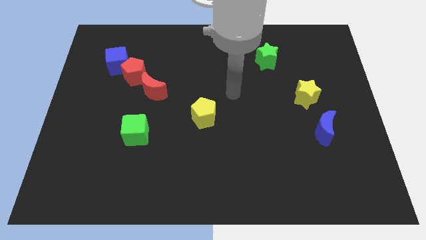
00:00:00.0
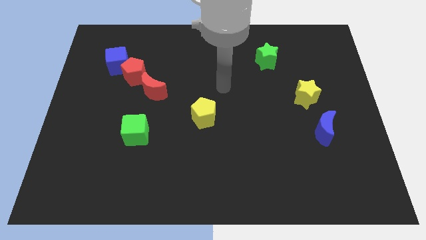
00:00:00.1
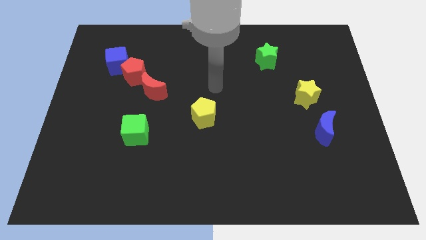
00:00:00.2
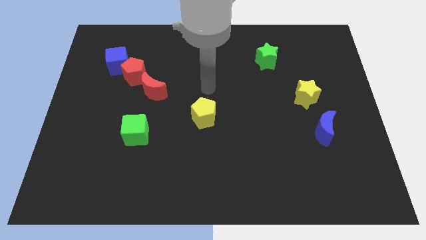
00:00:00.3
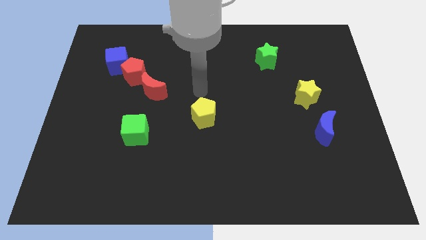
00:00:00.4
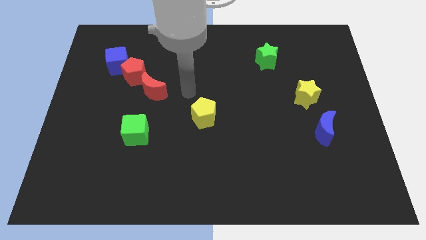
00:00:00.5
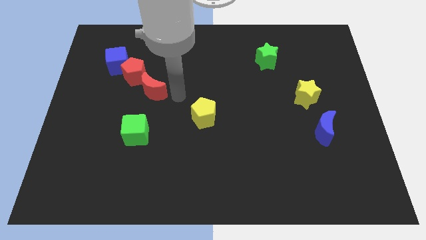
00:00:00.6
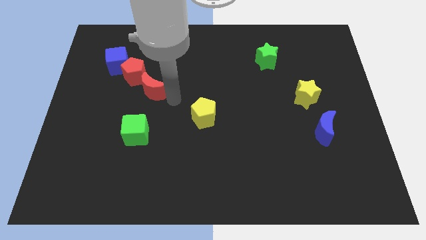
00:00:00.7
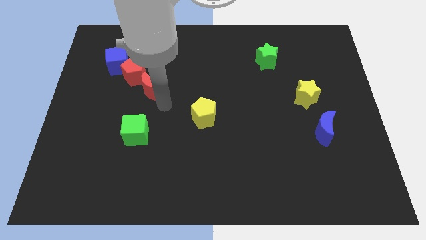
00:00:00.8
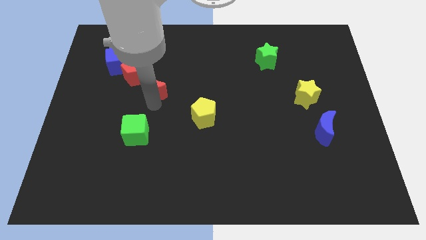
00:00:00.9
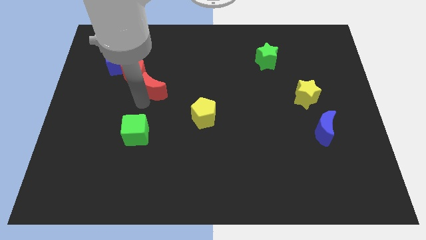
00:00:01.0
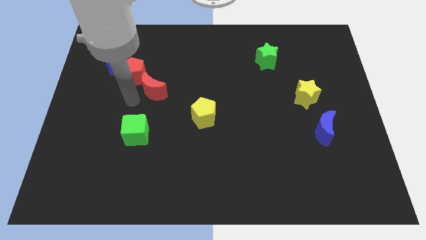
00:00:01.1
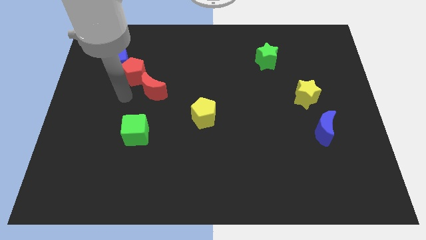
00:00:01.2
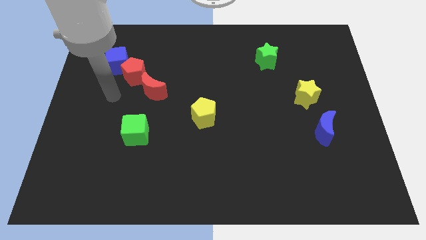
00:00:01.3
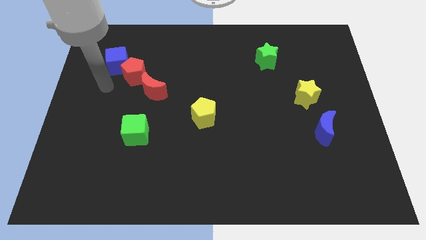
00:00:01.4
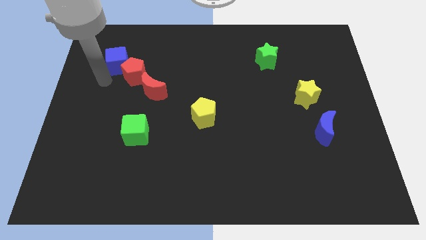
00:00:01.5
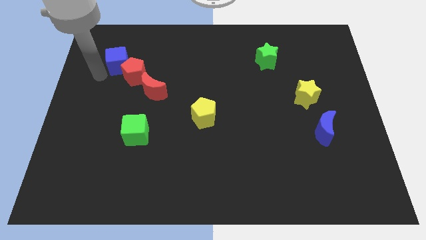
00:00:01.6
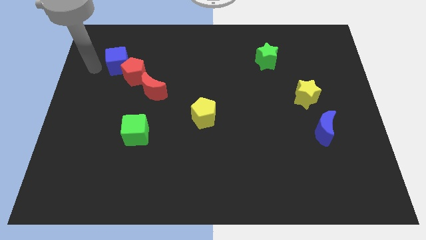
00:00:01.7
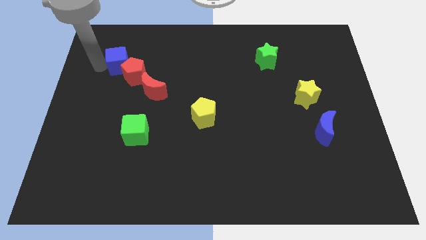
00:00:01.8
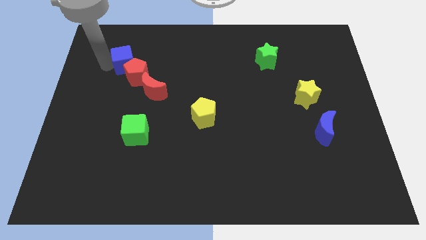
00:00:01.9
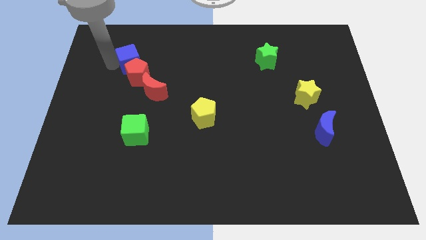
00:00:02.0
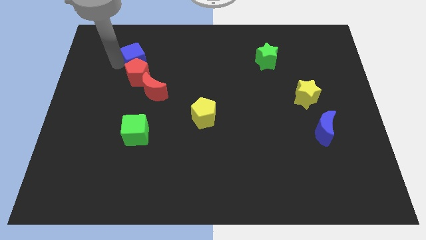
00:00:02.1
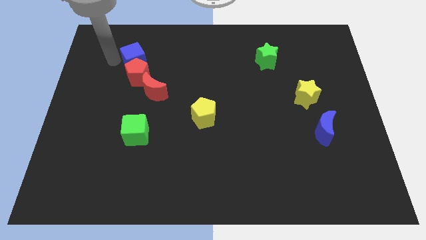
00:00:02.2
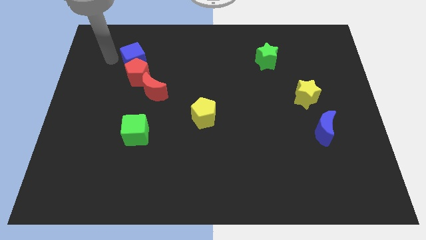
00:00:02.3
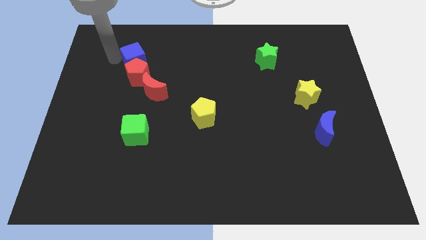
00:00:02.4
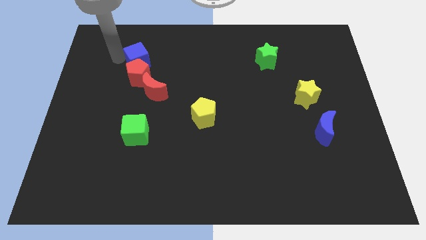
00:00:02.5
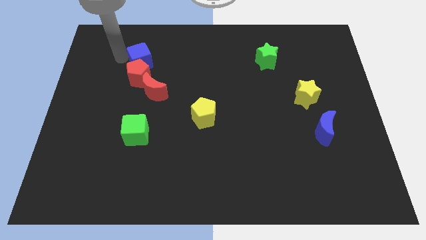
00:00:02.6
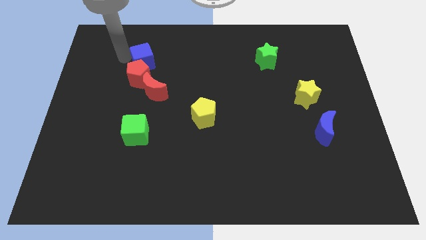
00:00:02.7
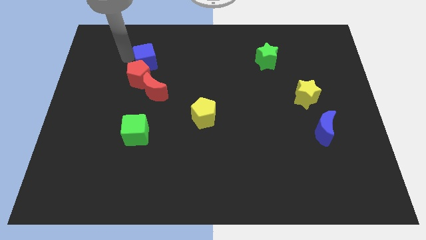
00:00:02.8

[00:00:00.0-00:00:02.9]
slide the blue cube to the right slightly

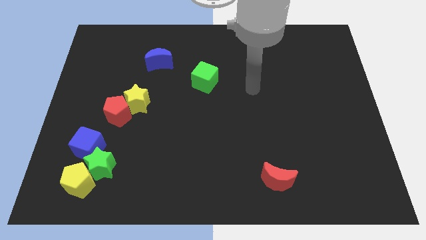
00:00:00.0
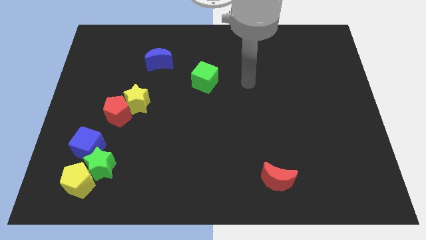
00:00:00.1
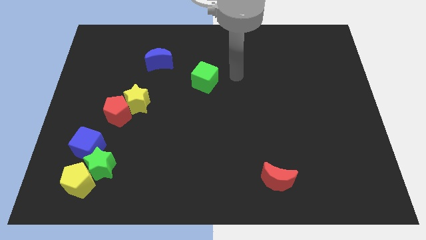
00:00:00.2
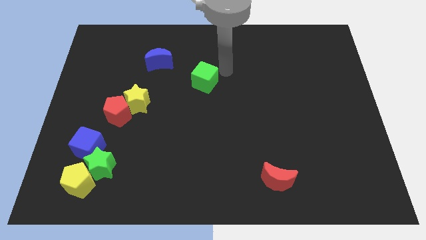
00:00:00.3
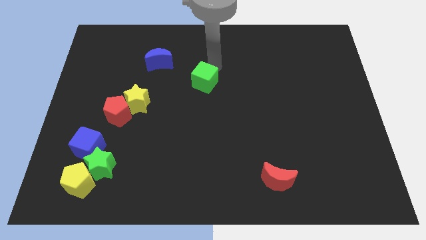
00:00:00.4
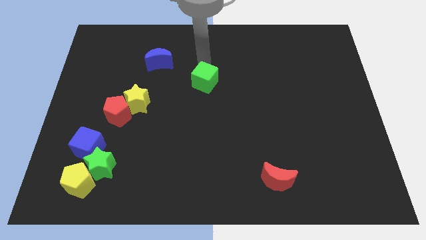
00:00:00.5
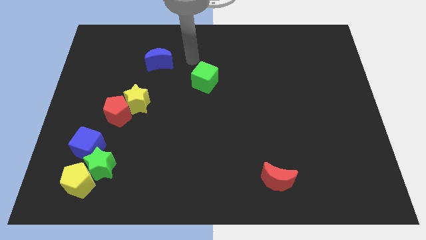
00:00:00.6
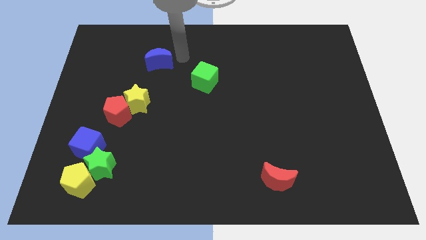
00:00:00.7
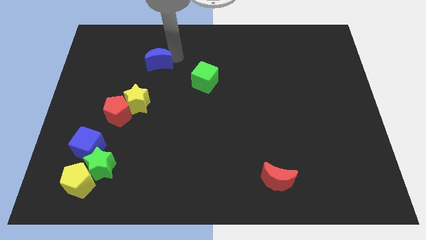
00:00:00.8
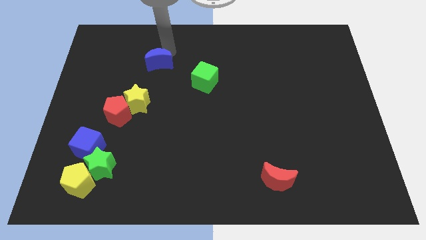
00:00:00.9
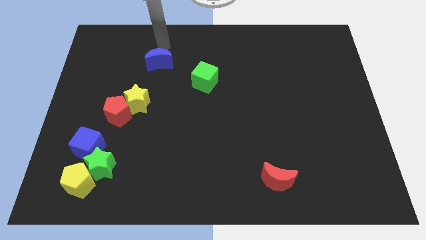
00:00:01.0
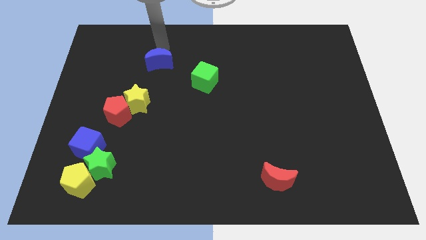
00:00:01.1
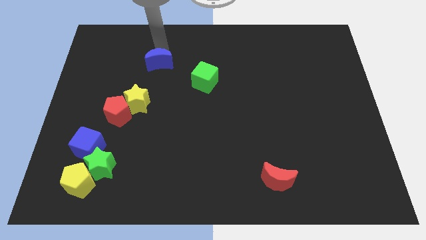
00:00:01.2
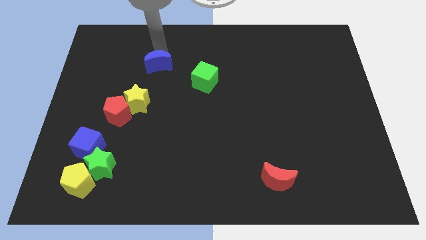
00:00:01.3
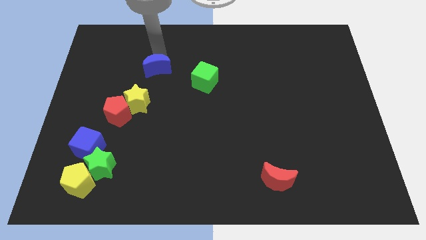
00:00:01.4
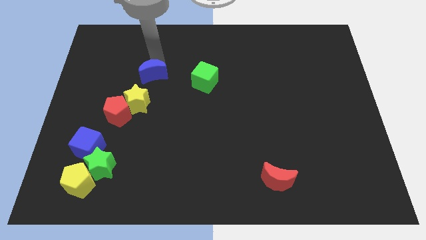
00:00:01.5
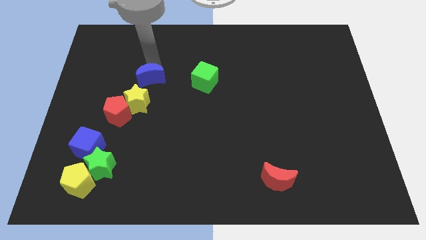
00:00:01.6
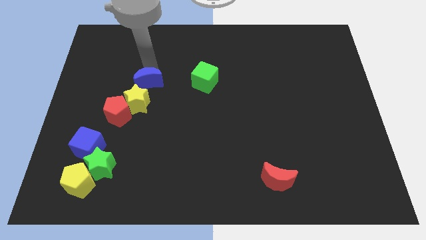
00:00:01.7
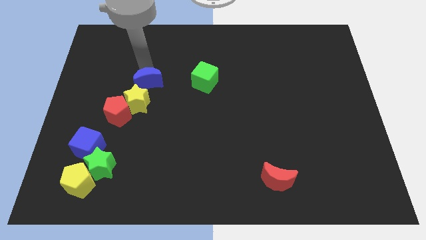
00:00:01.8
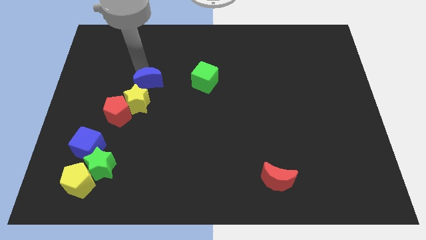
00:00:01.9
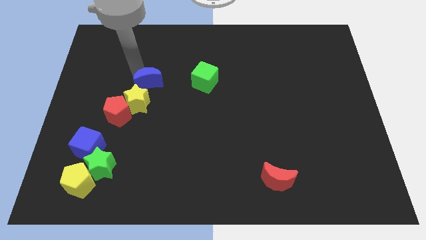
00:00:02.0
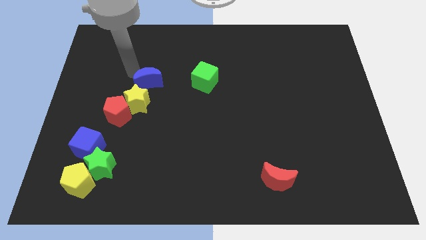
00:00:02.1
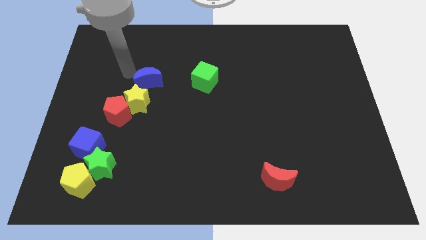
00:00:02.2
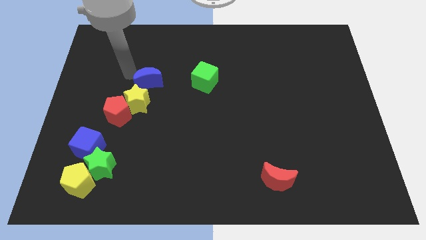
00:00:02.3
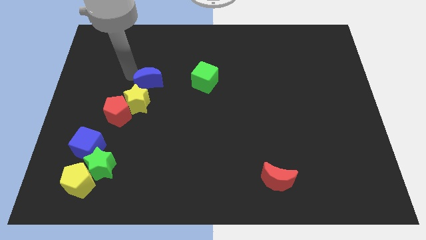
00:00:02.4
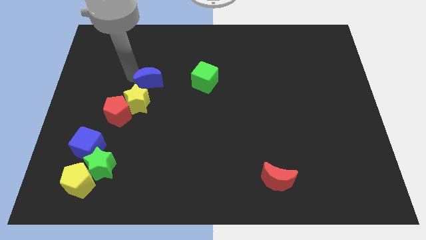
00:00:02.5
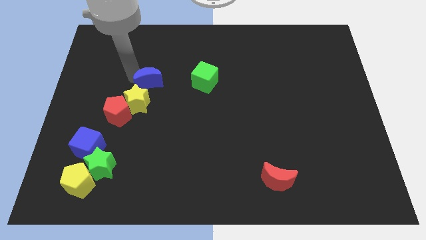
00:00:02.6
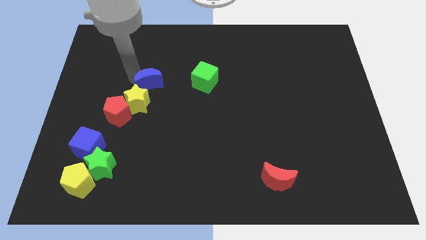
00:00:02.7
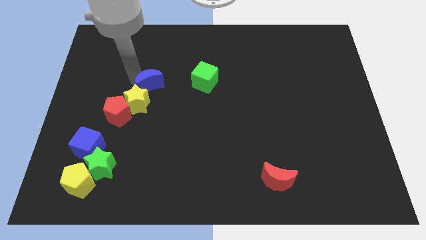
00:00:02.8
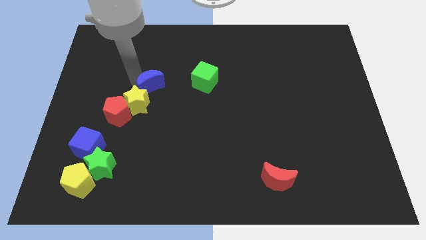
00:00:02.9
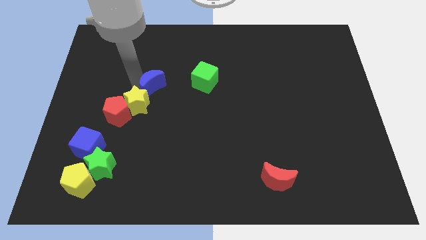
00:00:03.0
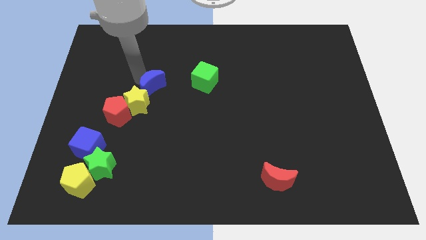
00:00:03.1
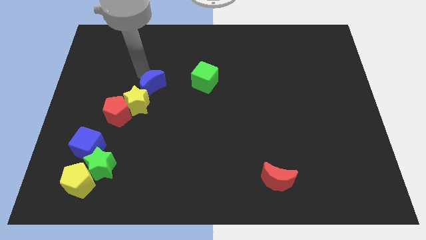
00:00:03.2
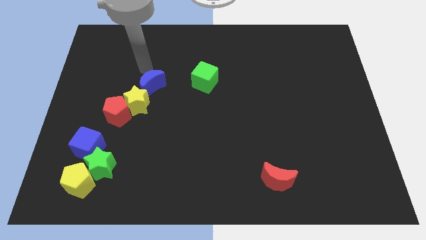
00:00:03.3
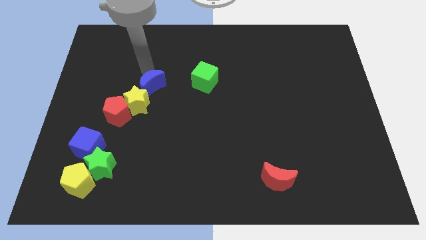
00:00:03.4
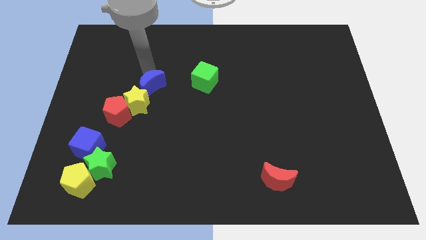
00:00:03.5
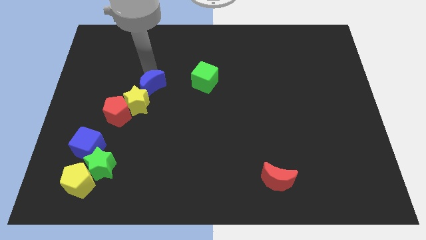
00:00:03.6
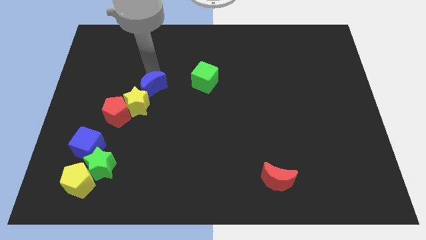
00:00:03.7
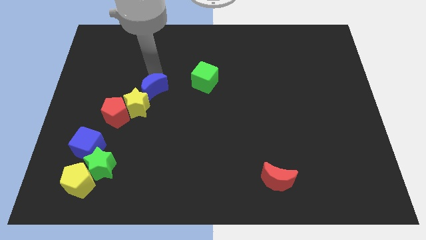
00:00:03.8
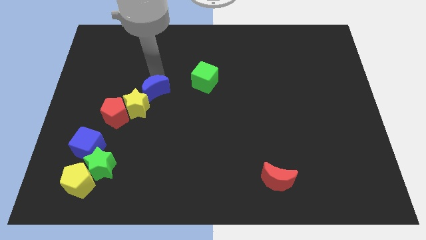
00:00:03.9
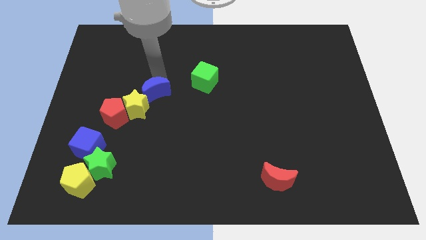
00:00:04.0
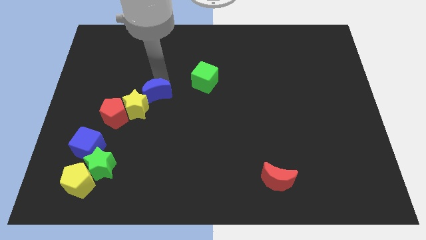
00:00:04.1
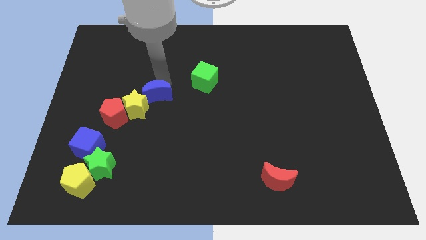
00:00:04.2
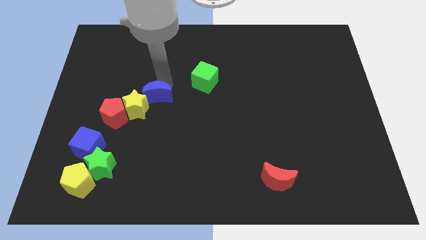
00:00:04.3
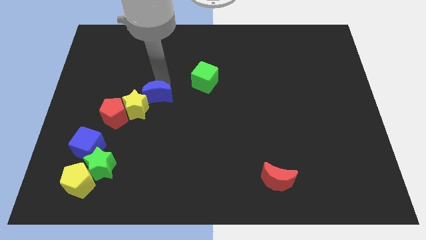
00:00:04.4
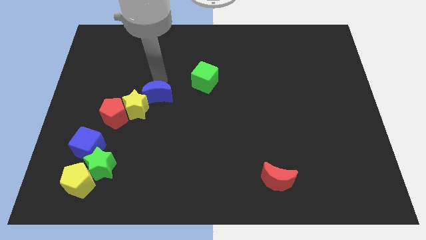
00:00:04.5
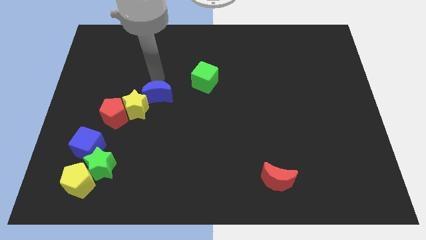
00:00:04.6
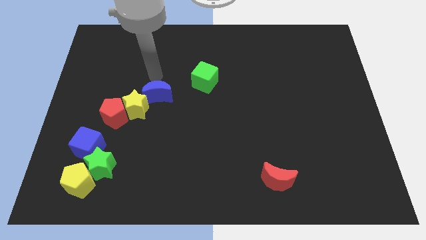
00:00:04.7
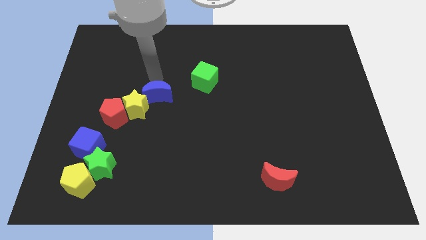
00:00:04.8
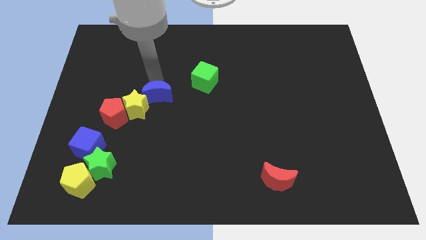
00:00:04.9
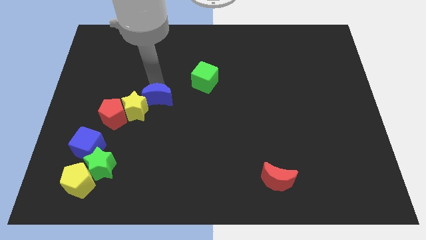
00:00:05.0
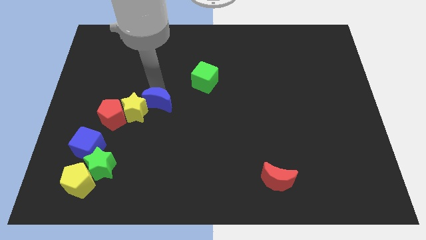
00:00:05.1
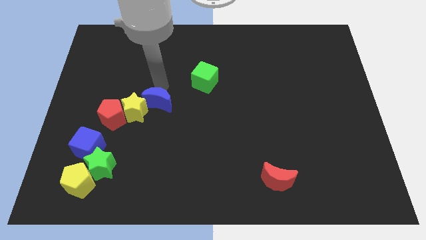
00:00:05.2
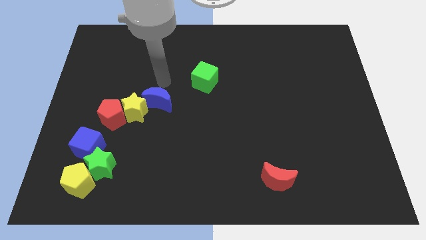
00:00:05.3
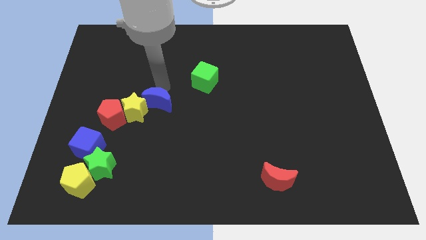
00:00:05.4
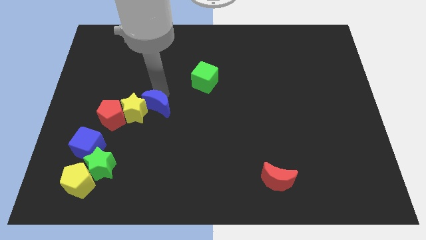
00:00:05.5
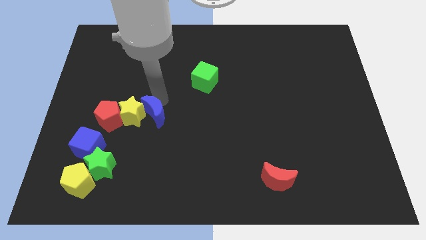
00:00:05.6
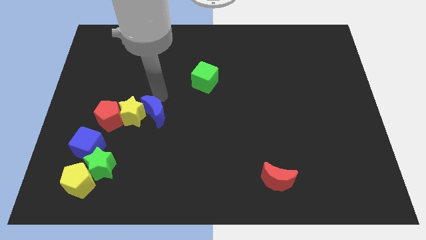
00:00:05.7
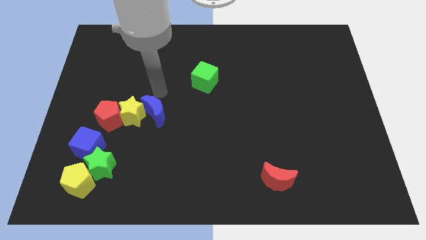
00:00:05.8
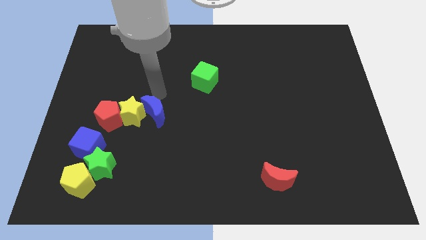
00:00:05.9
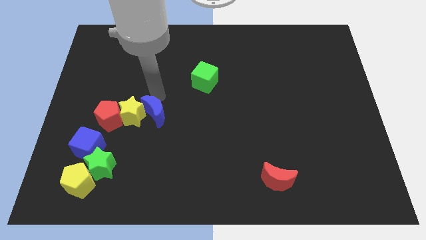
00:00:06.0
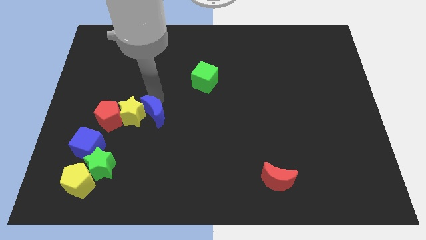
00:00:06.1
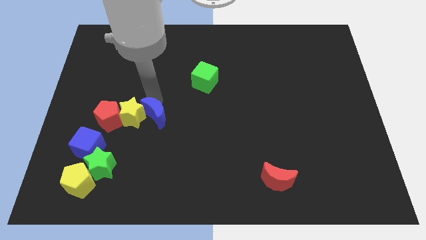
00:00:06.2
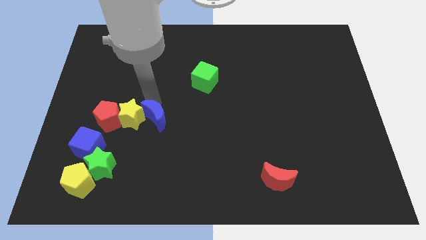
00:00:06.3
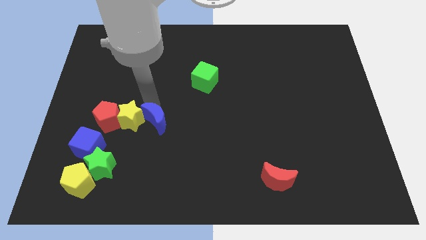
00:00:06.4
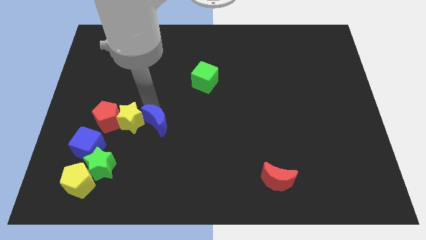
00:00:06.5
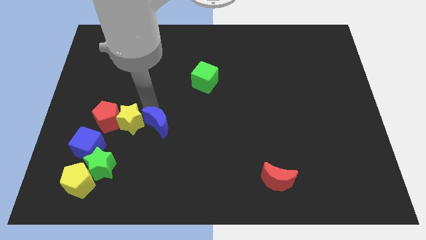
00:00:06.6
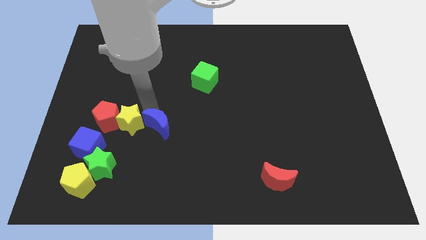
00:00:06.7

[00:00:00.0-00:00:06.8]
push the blue moon down
